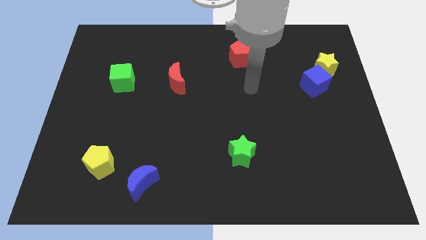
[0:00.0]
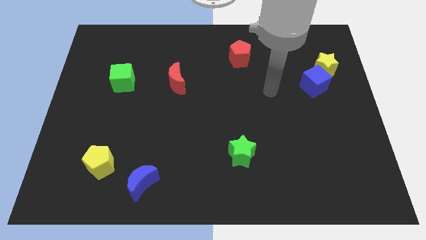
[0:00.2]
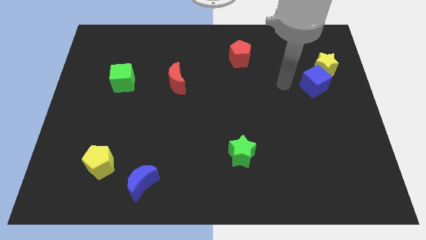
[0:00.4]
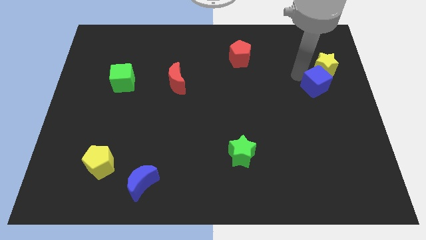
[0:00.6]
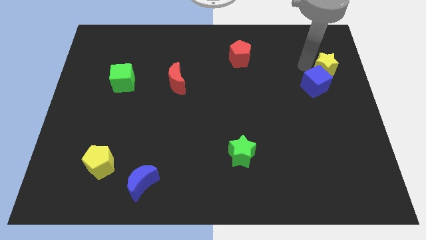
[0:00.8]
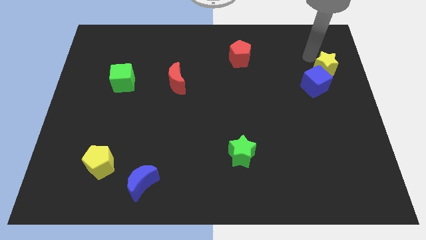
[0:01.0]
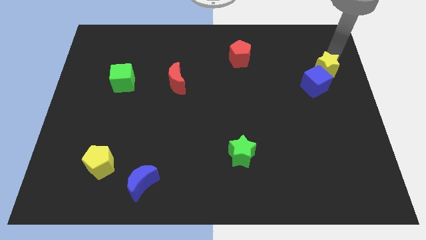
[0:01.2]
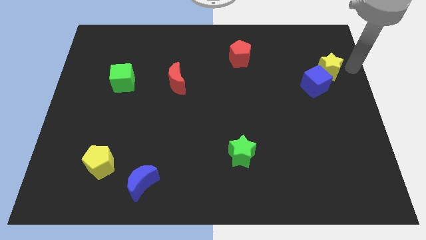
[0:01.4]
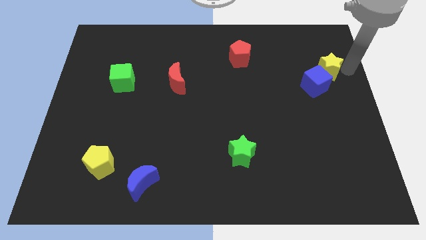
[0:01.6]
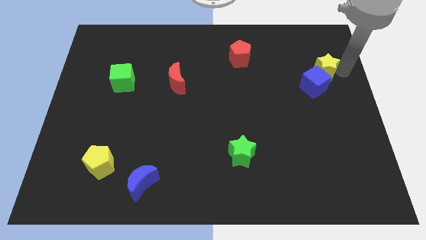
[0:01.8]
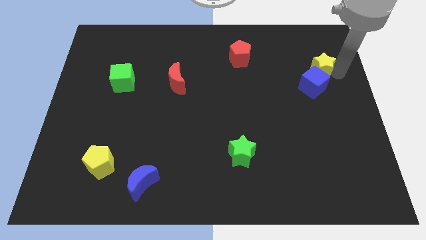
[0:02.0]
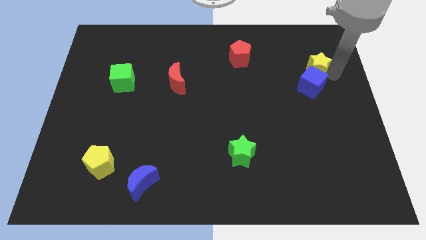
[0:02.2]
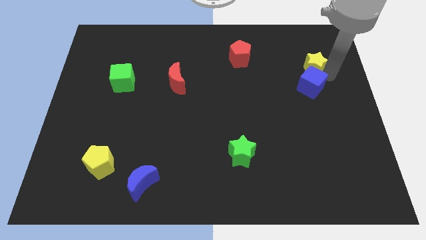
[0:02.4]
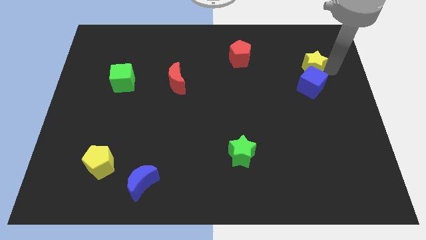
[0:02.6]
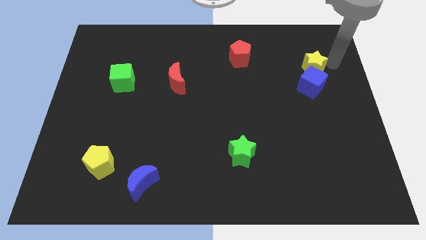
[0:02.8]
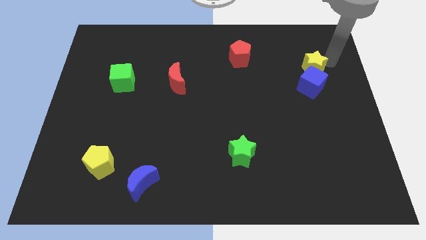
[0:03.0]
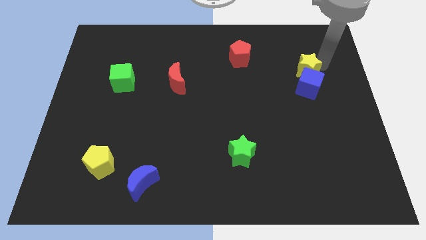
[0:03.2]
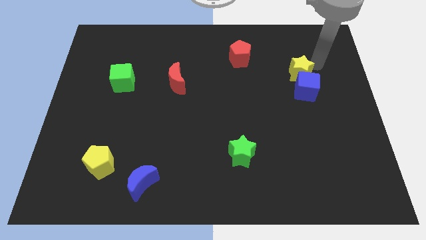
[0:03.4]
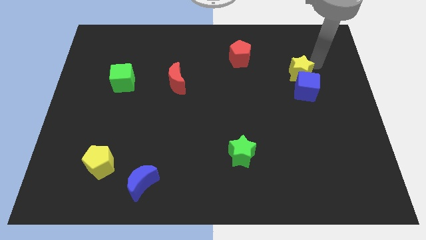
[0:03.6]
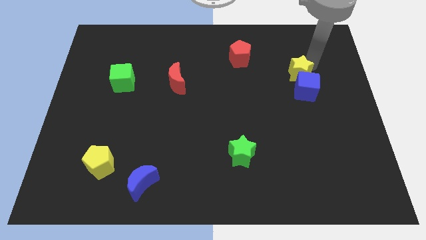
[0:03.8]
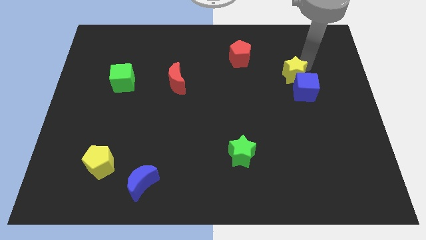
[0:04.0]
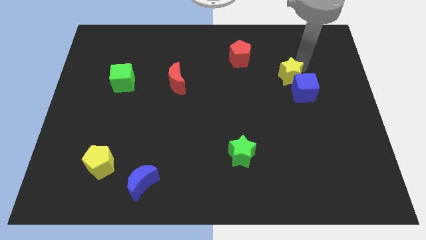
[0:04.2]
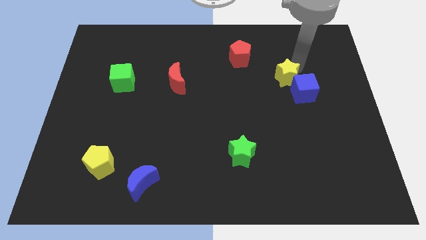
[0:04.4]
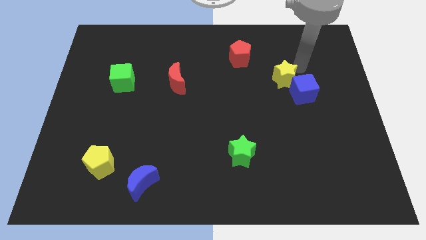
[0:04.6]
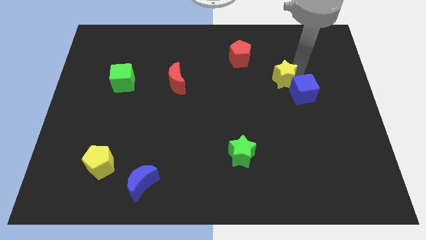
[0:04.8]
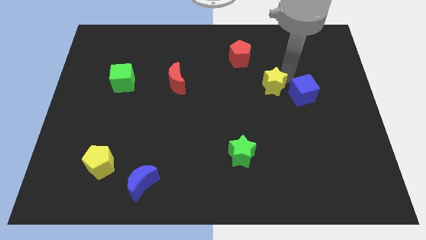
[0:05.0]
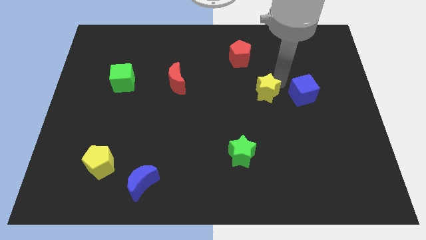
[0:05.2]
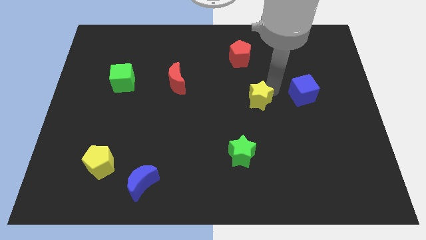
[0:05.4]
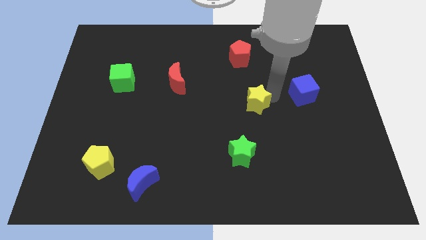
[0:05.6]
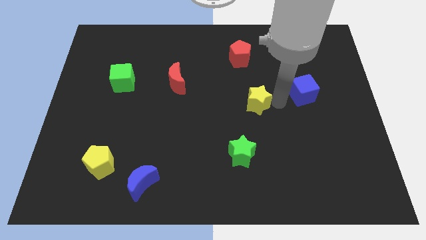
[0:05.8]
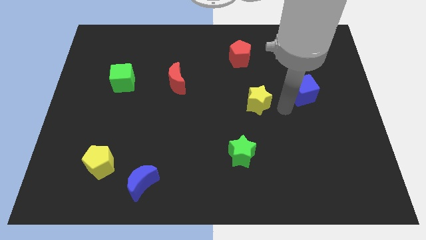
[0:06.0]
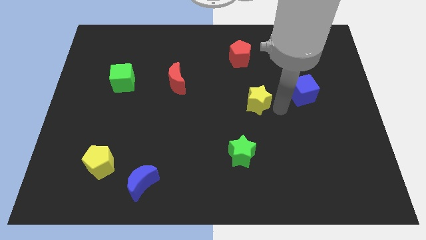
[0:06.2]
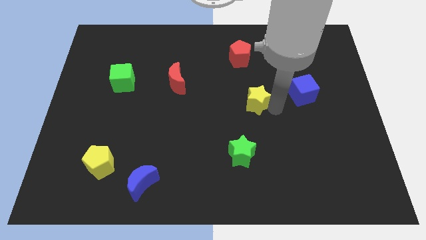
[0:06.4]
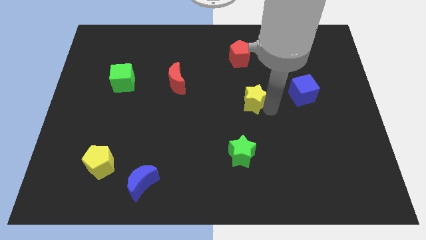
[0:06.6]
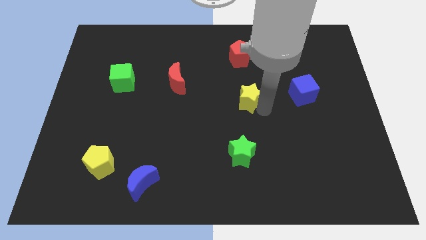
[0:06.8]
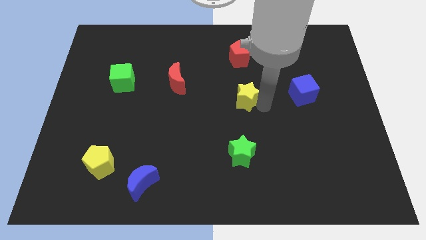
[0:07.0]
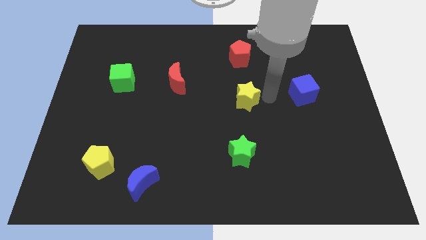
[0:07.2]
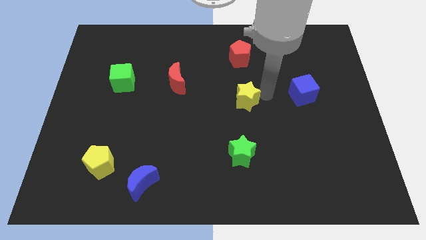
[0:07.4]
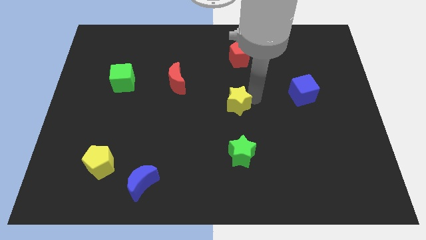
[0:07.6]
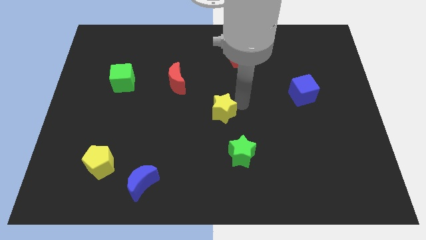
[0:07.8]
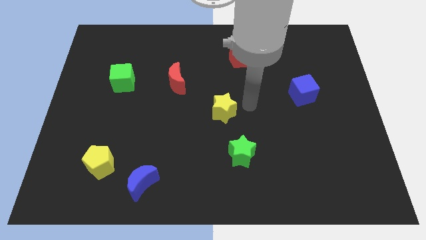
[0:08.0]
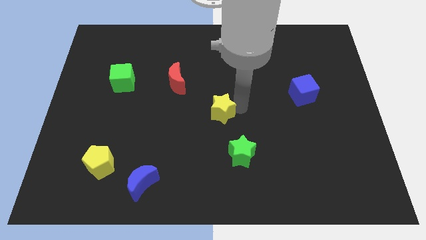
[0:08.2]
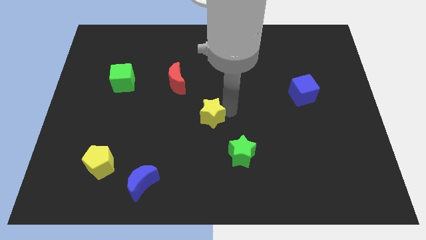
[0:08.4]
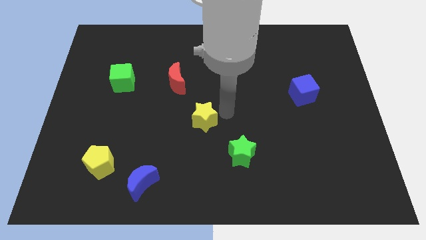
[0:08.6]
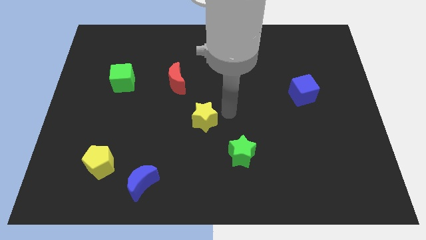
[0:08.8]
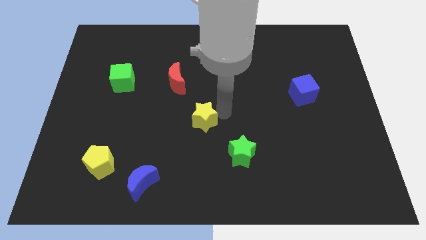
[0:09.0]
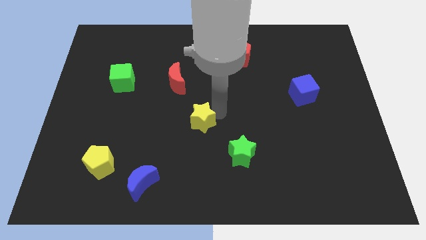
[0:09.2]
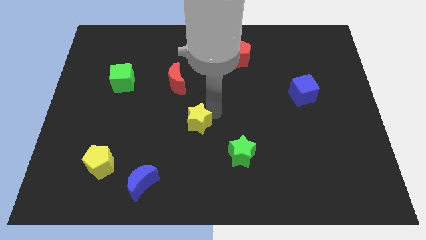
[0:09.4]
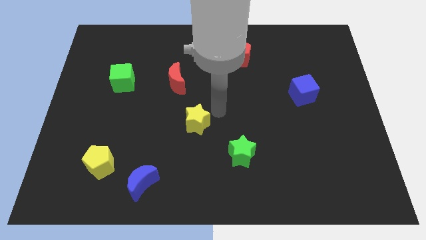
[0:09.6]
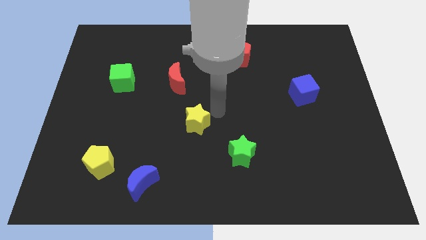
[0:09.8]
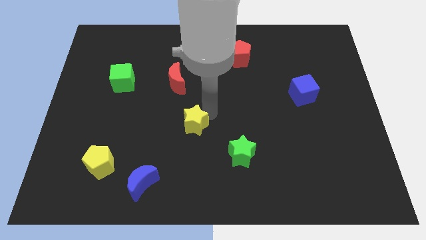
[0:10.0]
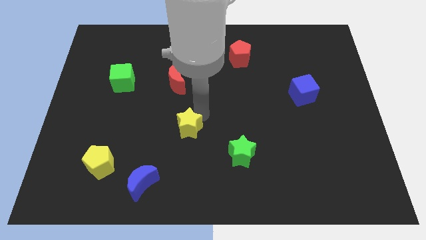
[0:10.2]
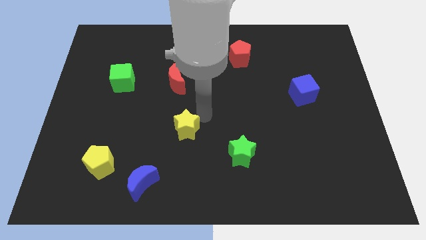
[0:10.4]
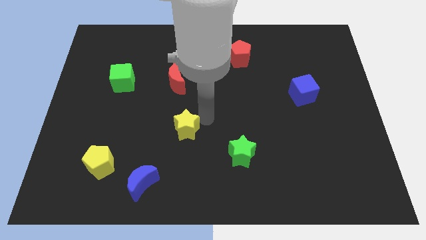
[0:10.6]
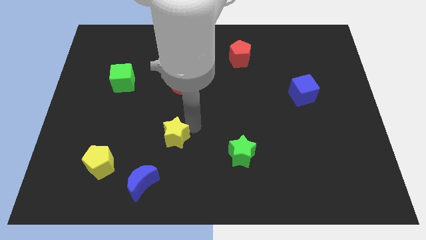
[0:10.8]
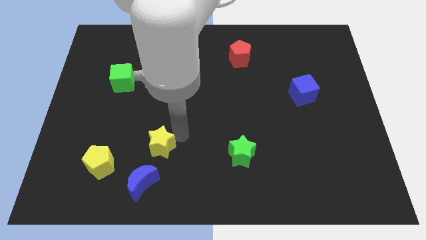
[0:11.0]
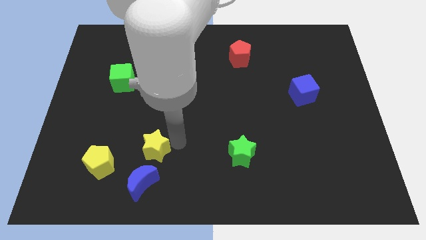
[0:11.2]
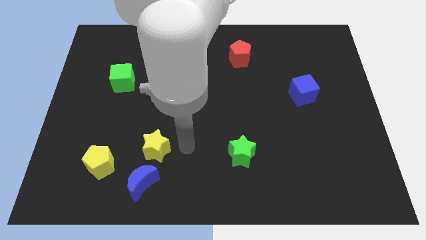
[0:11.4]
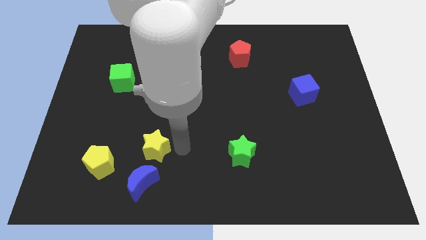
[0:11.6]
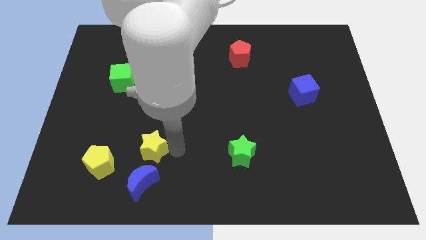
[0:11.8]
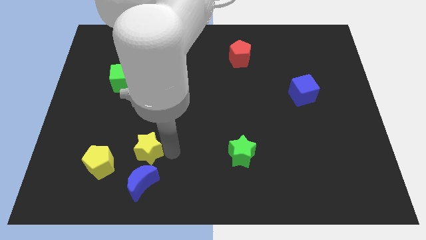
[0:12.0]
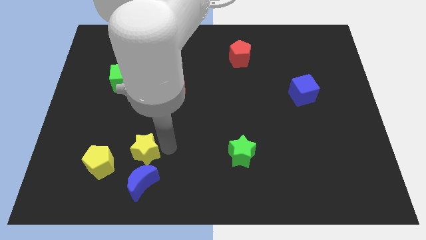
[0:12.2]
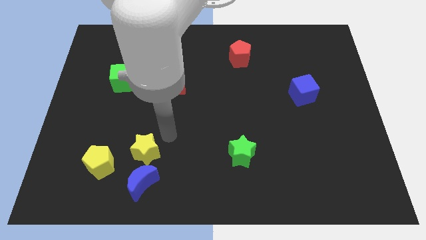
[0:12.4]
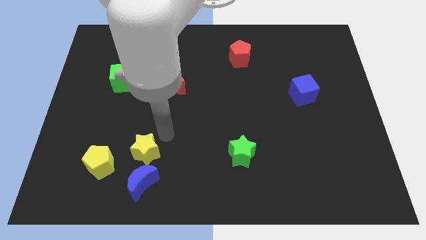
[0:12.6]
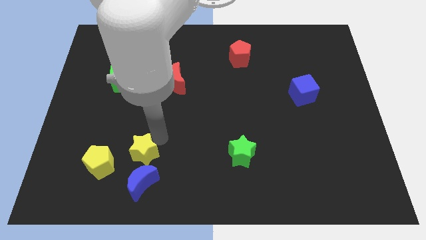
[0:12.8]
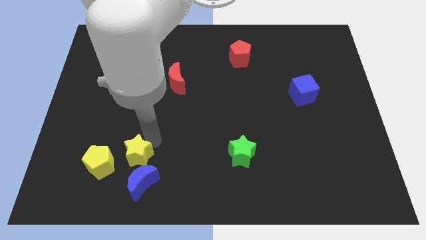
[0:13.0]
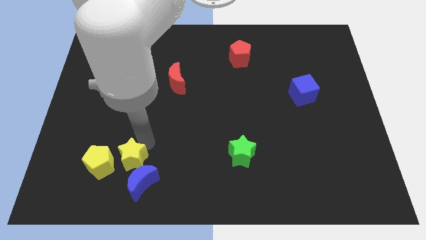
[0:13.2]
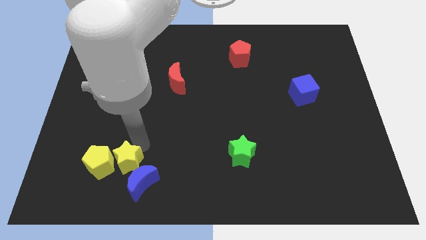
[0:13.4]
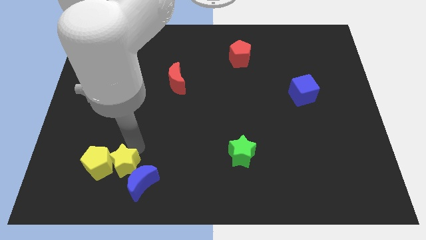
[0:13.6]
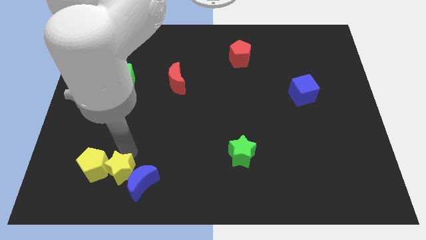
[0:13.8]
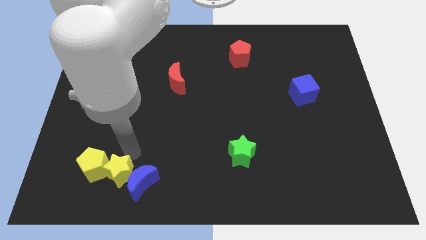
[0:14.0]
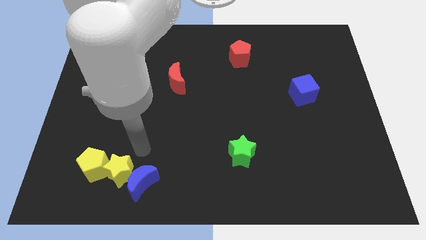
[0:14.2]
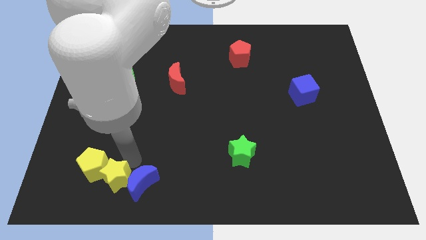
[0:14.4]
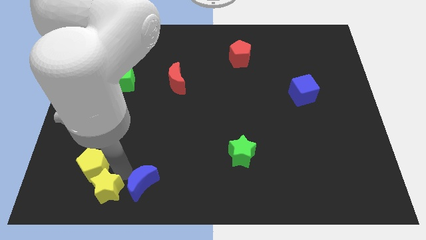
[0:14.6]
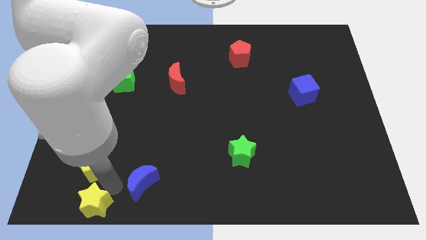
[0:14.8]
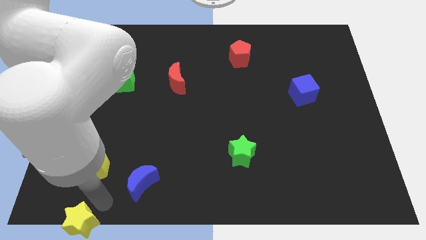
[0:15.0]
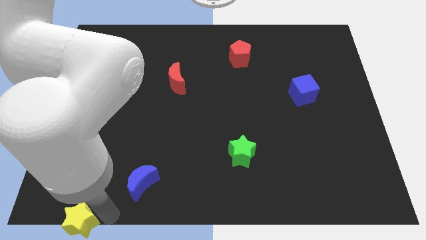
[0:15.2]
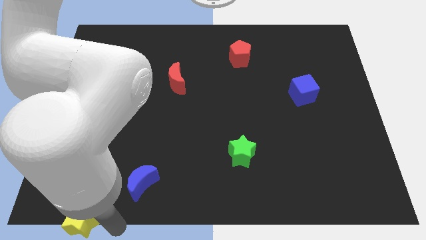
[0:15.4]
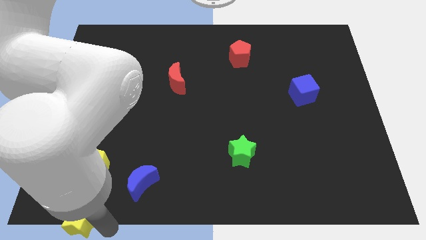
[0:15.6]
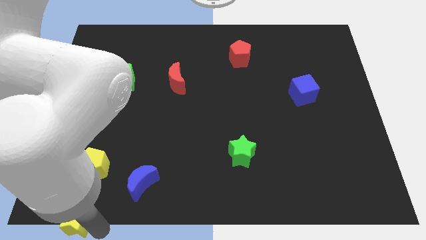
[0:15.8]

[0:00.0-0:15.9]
slide the yellow star to the bottom left
